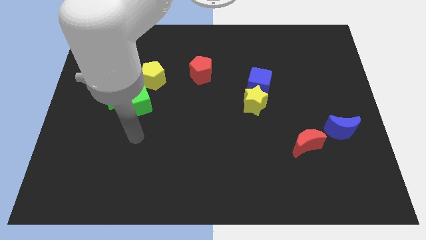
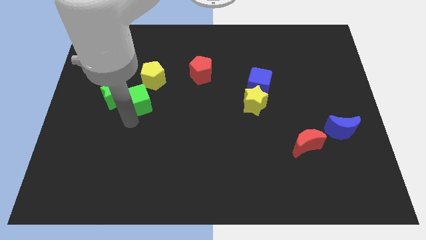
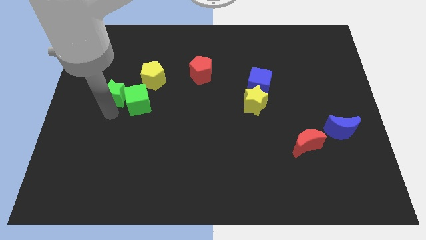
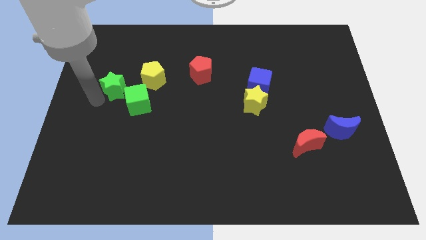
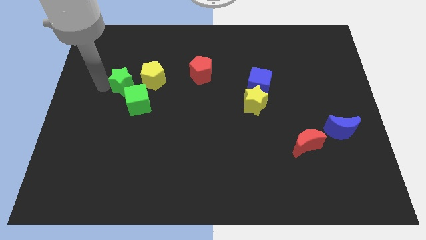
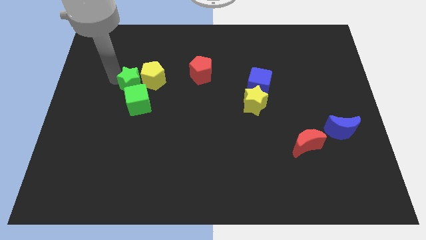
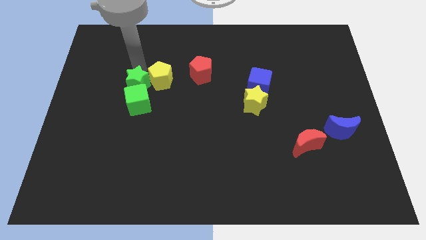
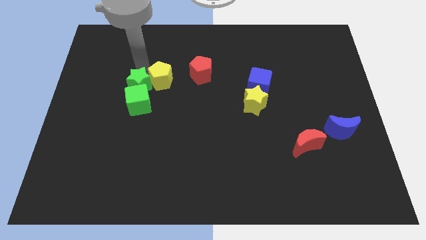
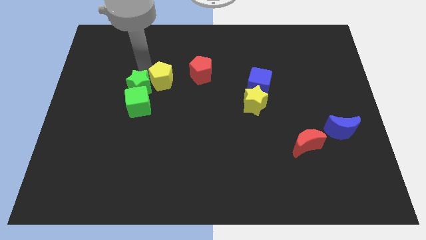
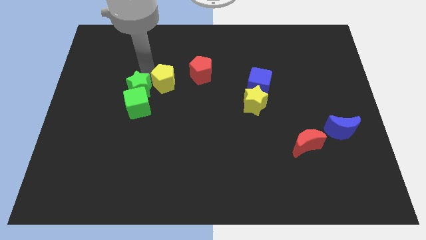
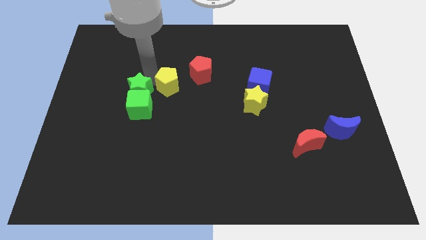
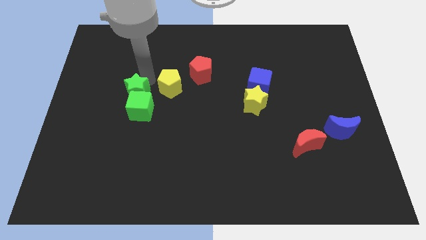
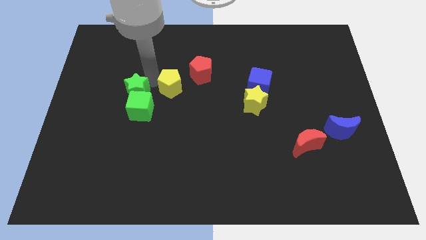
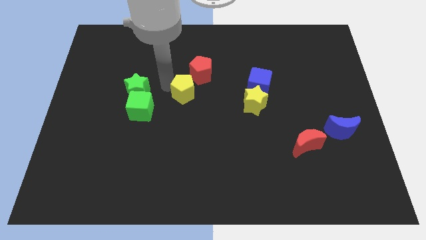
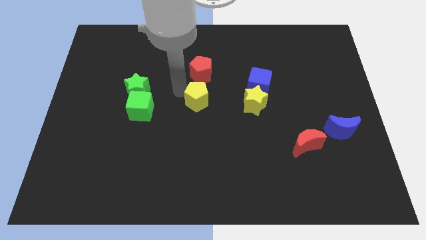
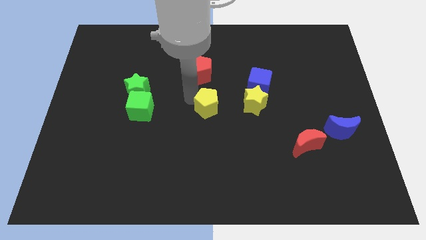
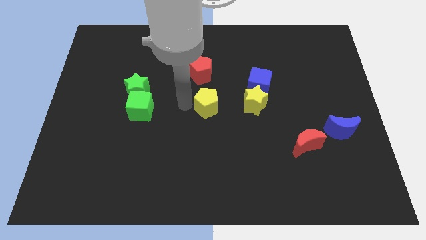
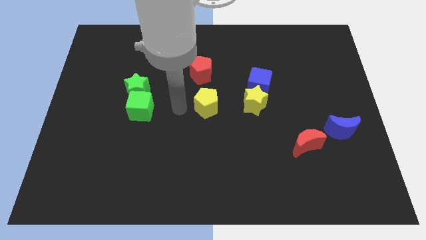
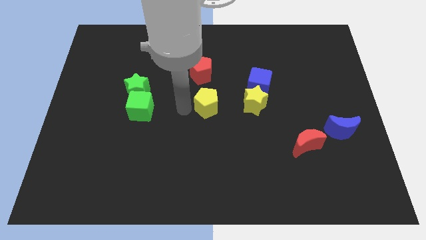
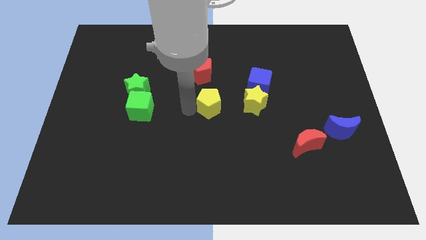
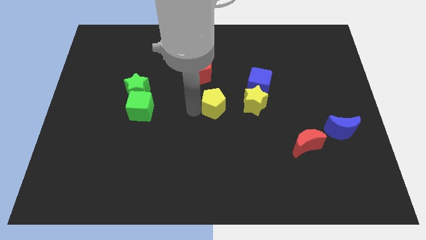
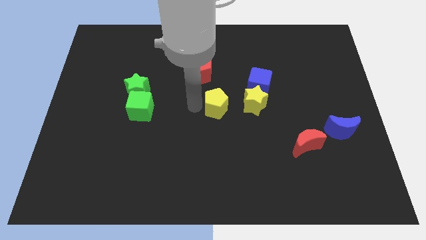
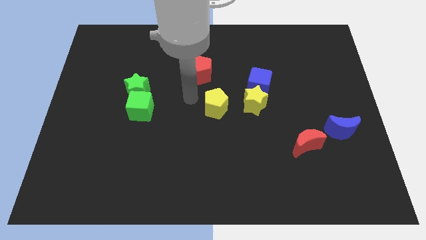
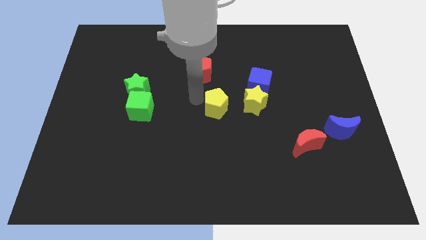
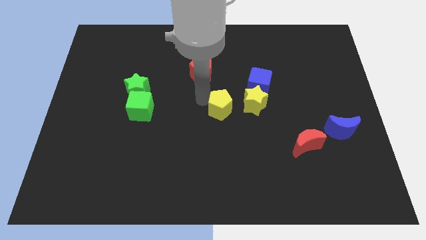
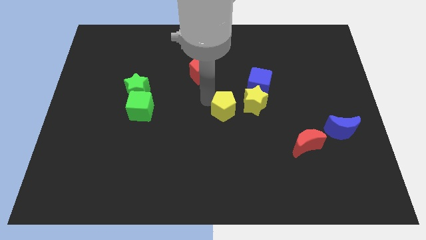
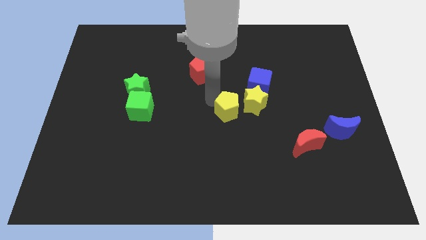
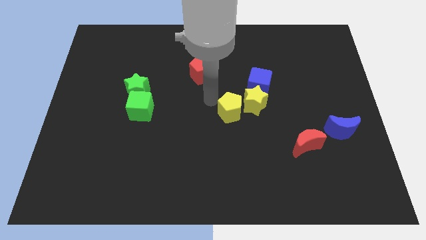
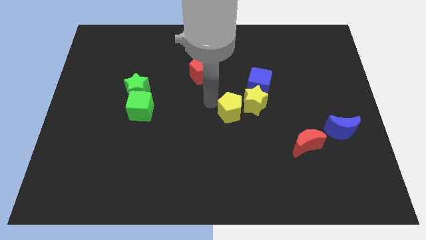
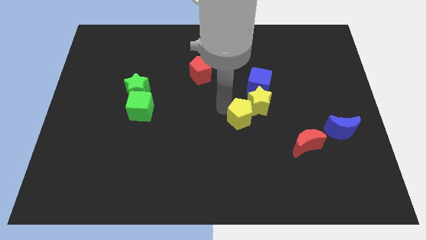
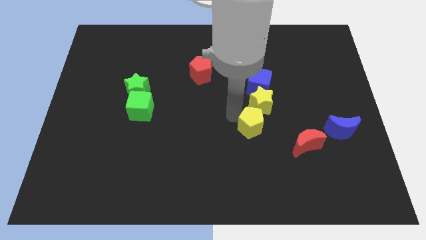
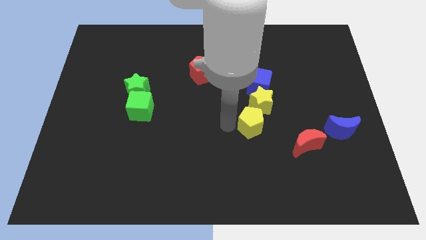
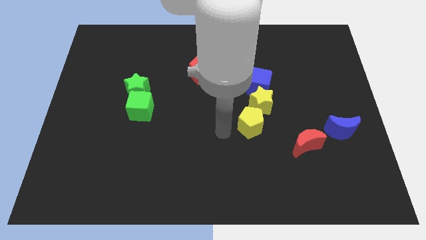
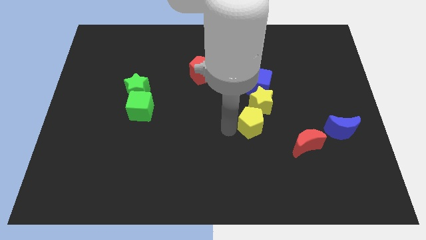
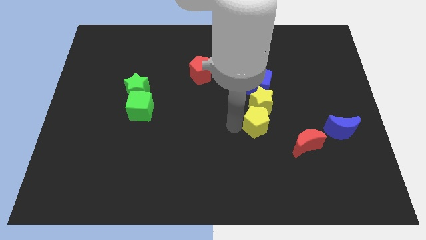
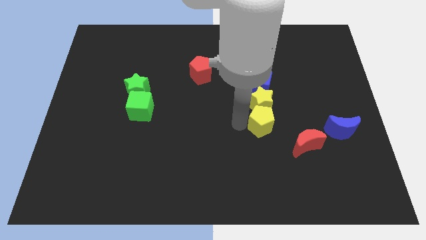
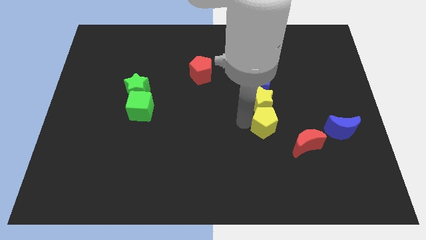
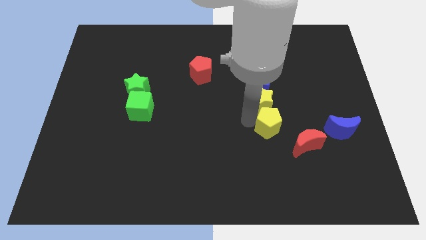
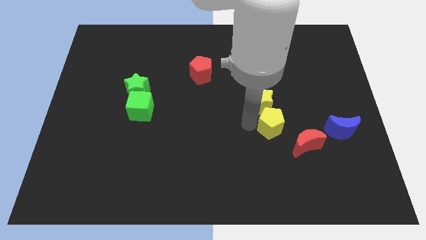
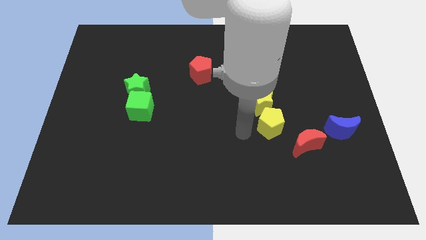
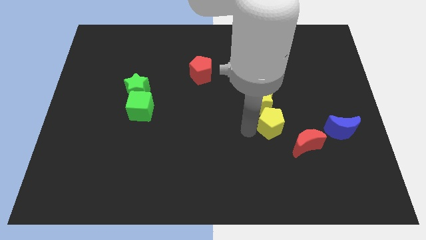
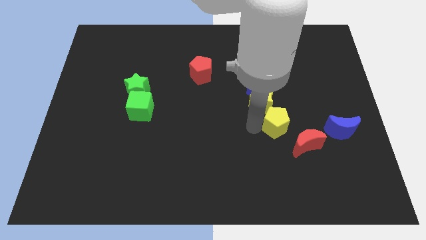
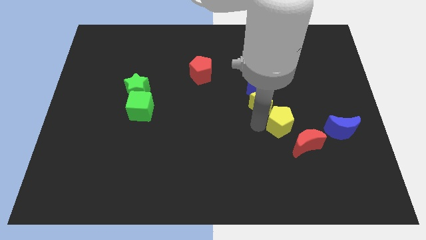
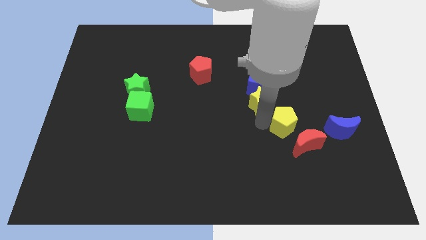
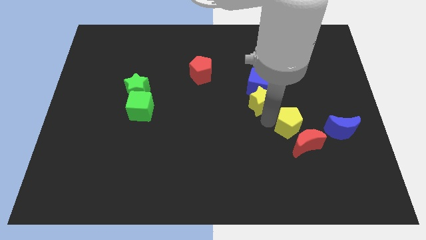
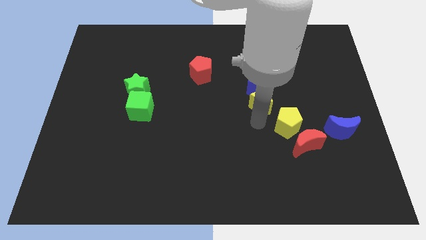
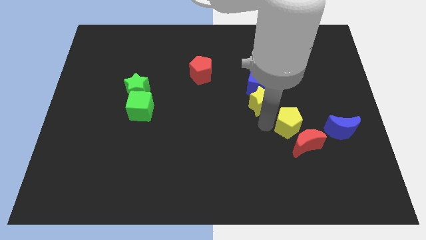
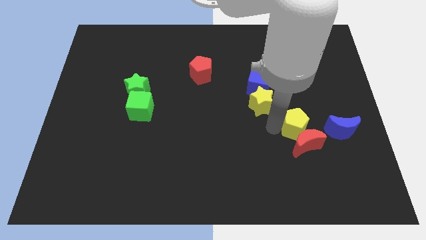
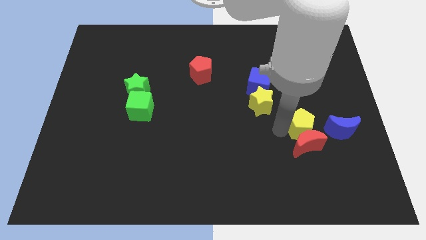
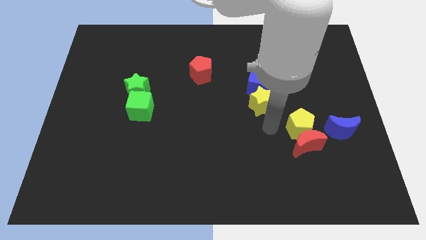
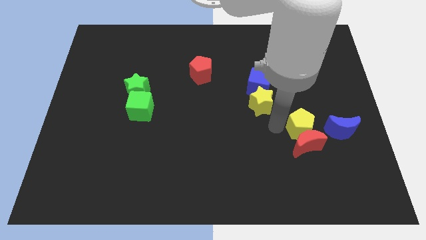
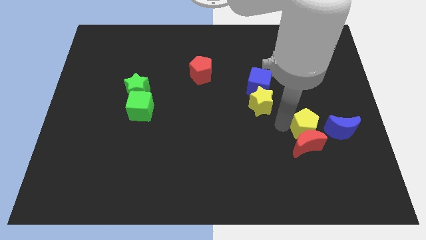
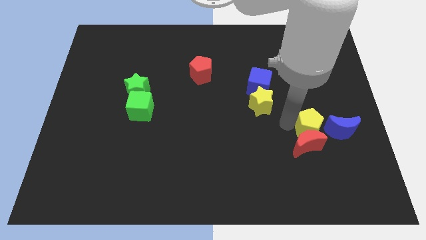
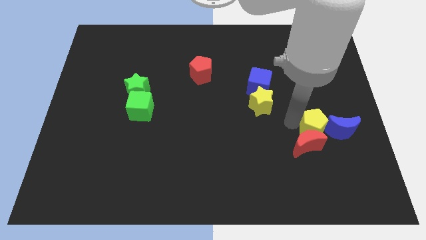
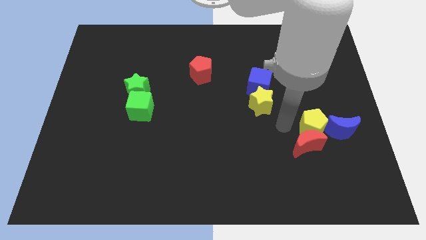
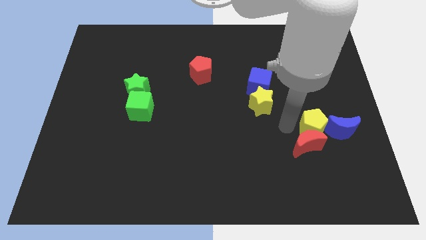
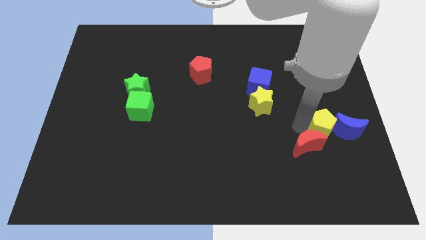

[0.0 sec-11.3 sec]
move the yellow pentagon close to the blue moon

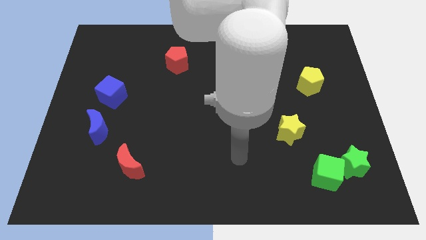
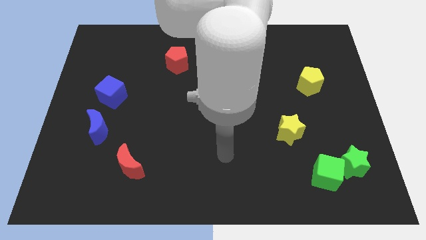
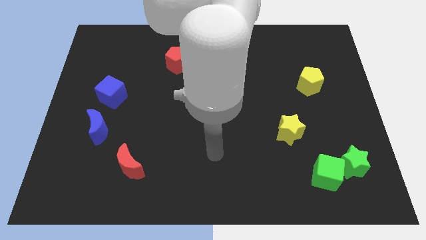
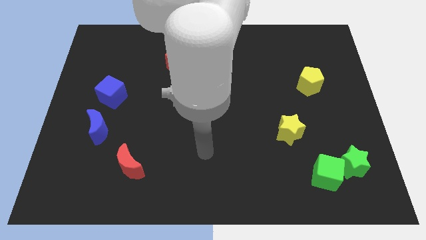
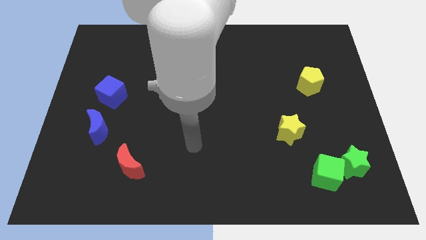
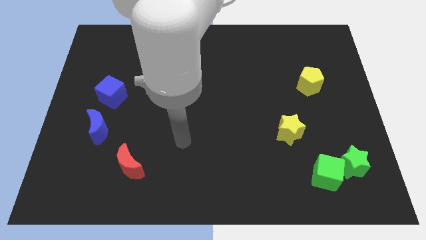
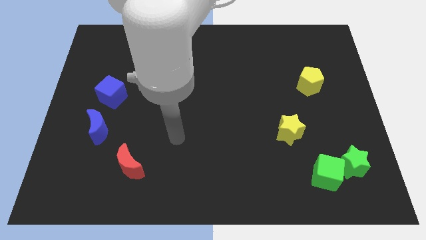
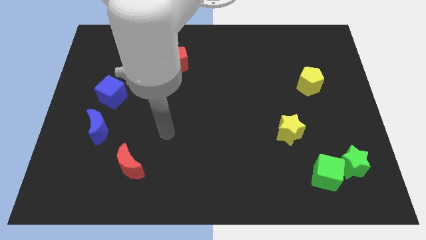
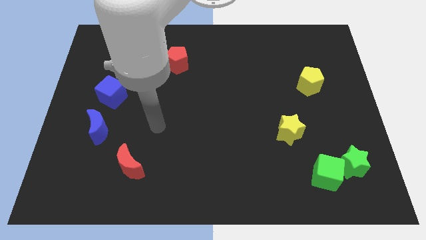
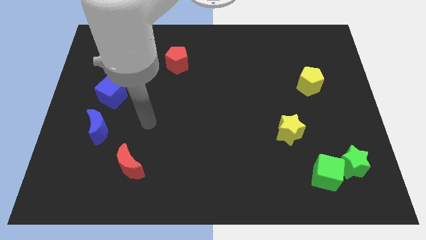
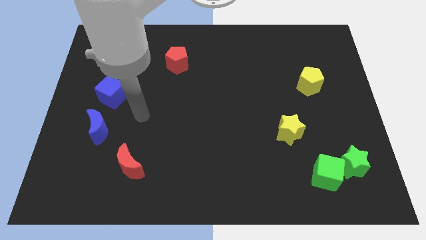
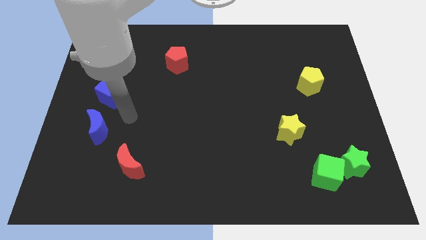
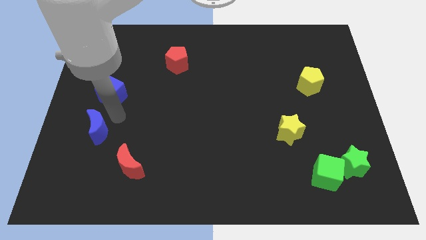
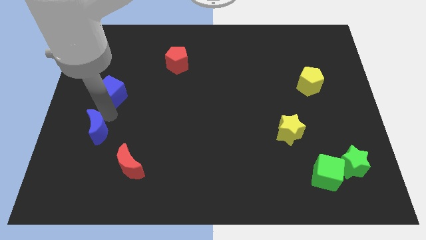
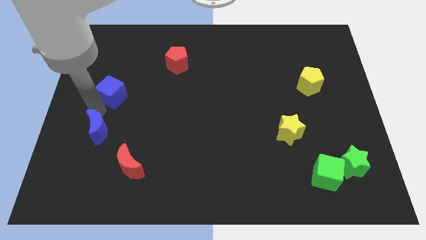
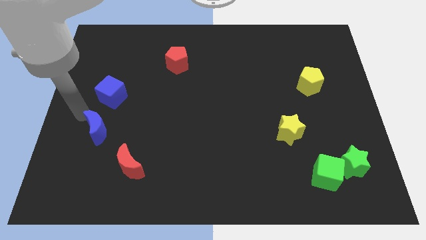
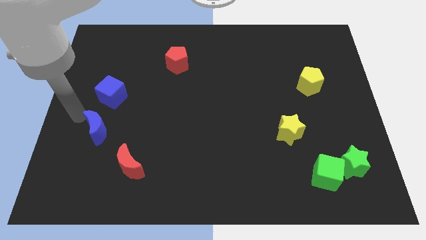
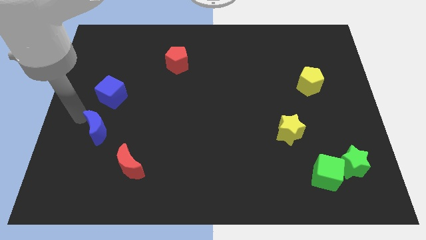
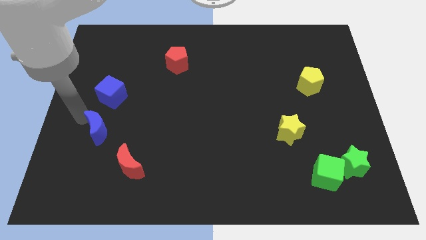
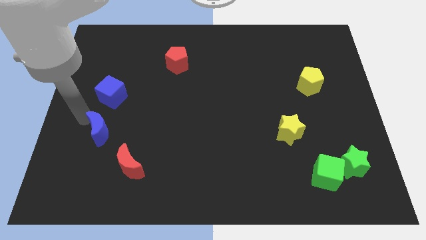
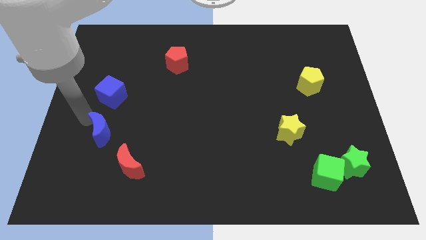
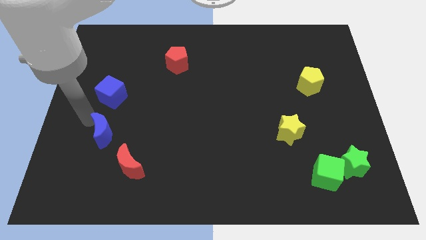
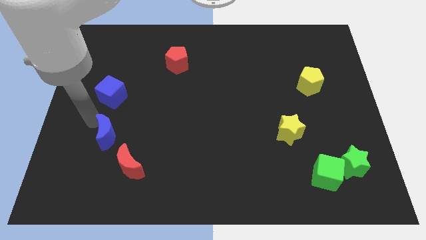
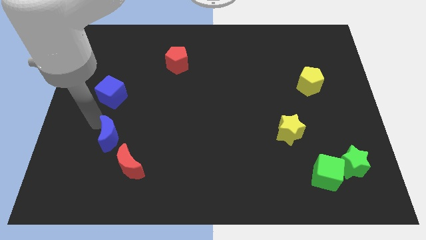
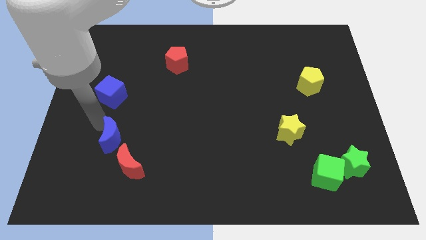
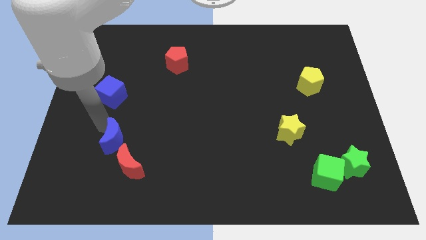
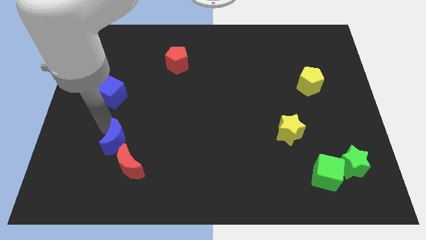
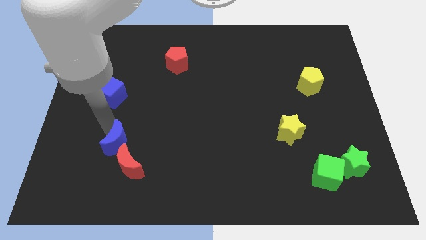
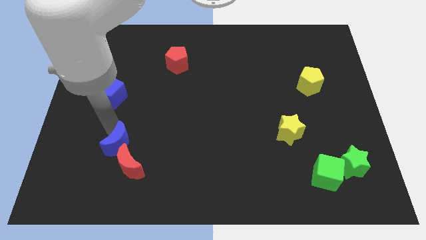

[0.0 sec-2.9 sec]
move the blue moon next to the red moon
